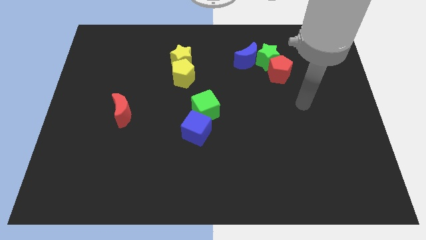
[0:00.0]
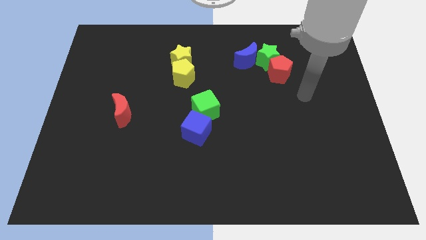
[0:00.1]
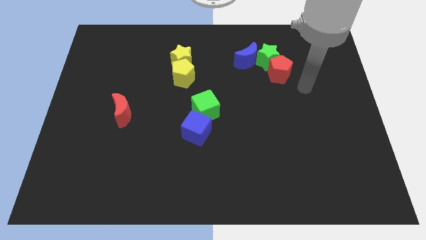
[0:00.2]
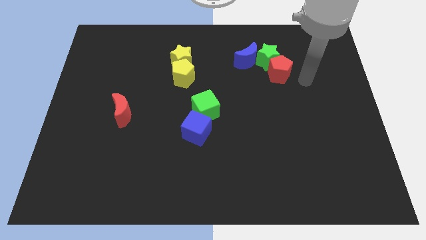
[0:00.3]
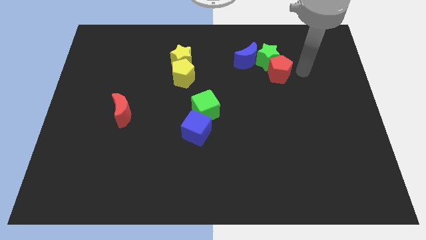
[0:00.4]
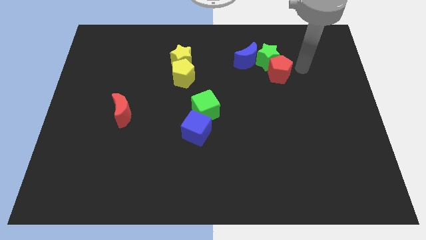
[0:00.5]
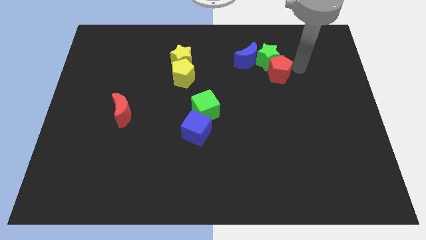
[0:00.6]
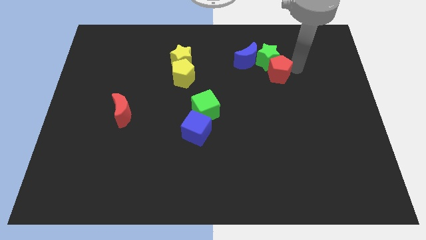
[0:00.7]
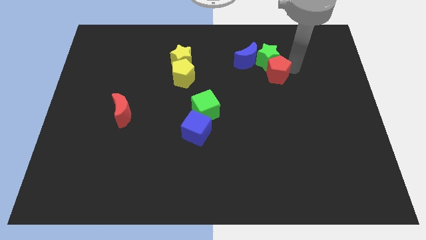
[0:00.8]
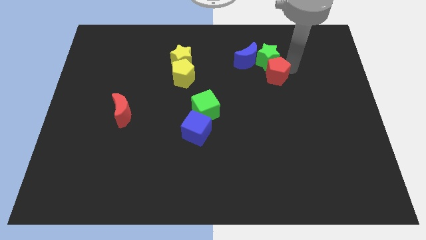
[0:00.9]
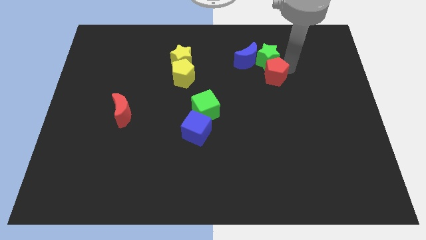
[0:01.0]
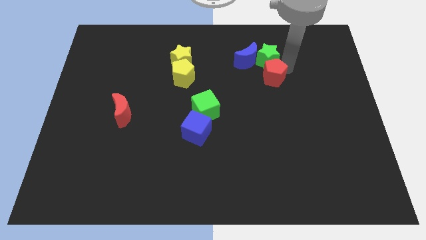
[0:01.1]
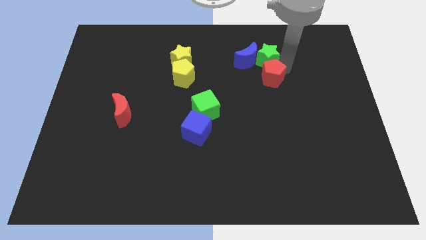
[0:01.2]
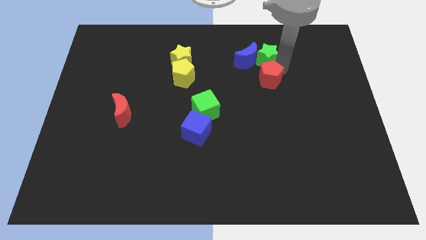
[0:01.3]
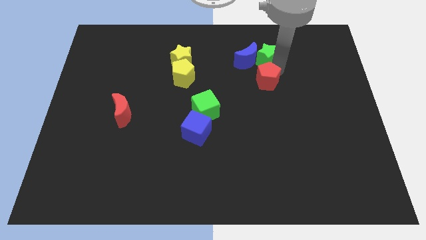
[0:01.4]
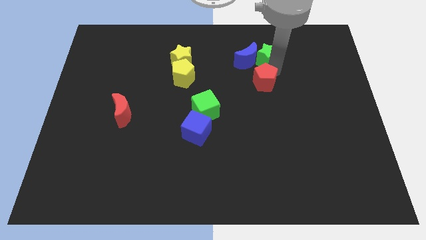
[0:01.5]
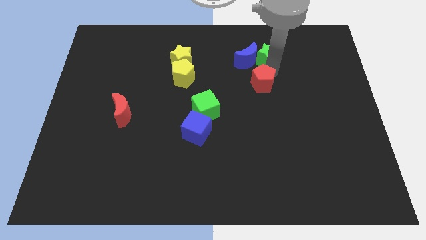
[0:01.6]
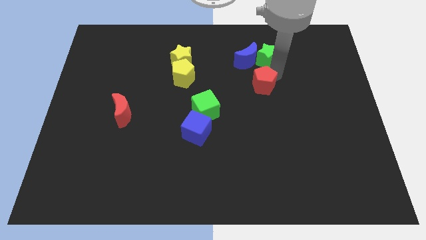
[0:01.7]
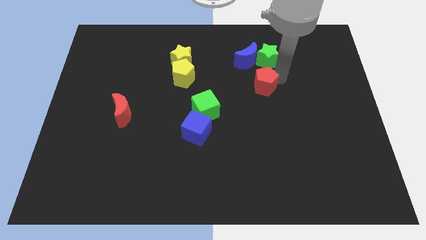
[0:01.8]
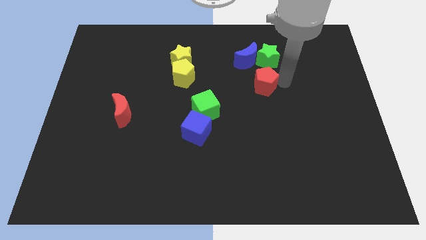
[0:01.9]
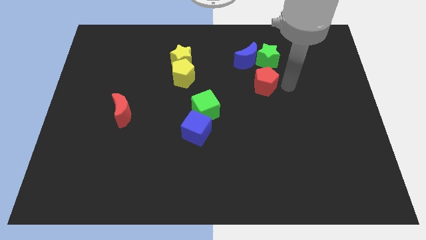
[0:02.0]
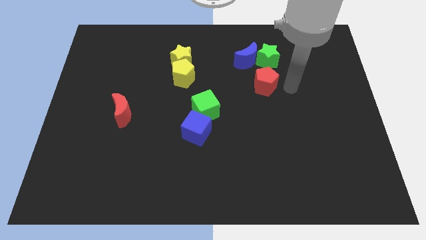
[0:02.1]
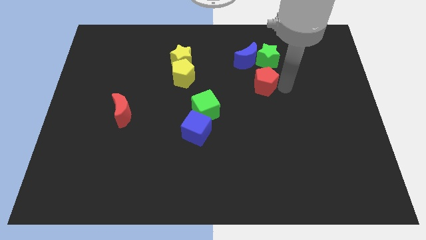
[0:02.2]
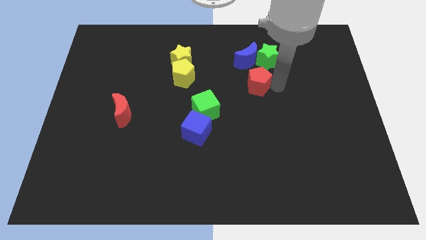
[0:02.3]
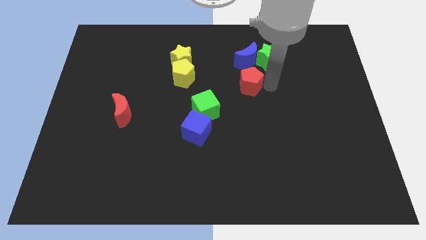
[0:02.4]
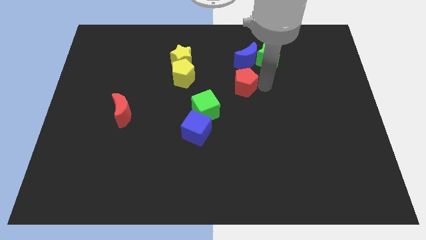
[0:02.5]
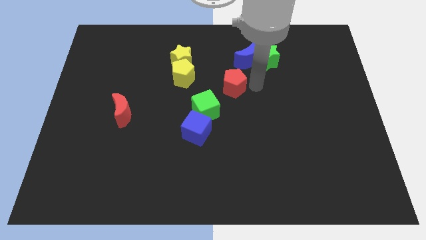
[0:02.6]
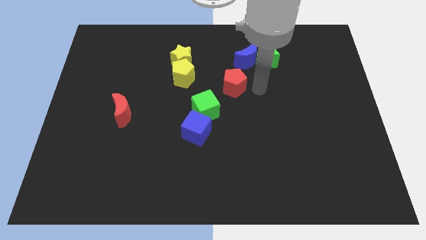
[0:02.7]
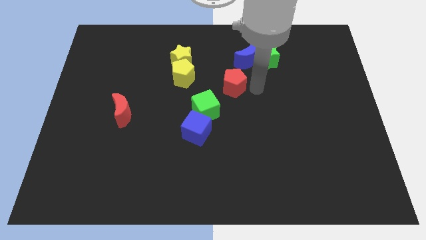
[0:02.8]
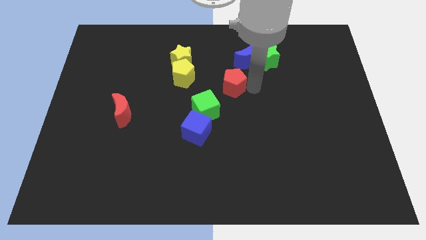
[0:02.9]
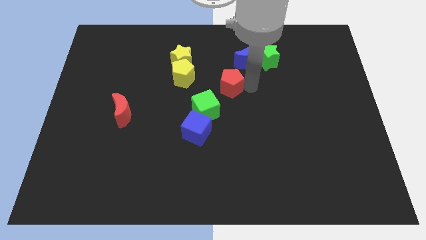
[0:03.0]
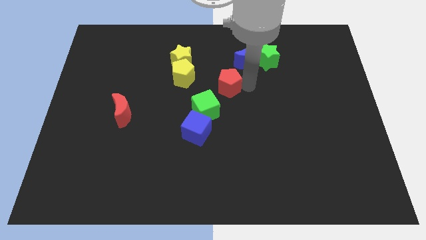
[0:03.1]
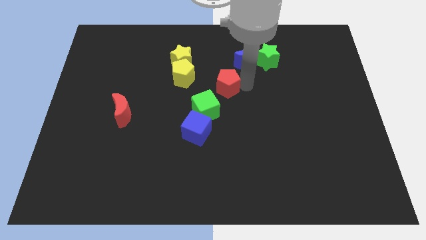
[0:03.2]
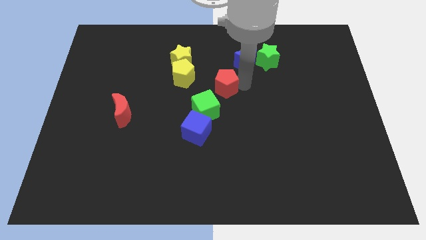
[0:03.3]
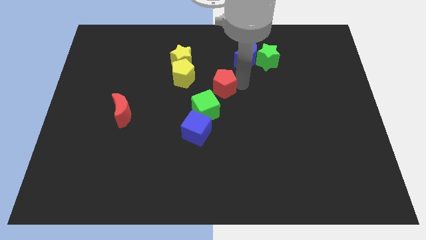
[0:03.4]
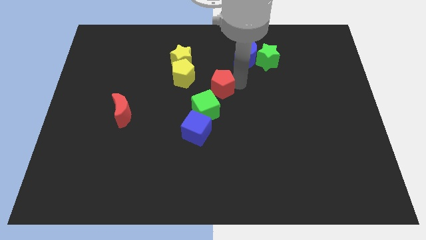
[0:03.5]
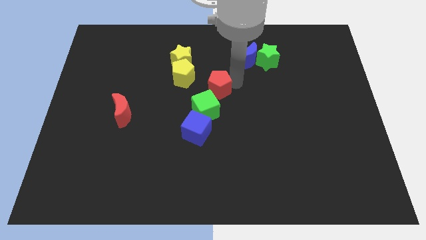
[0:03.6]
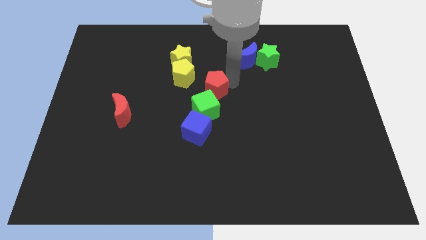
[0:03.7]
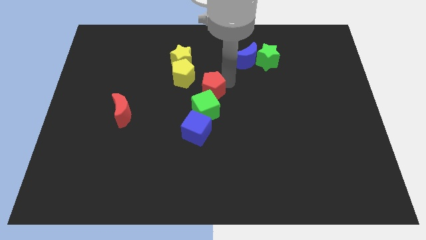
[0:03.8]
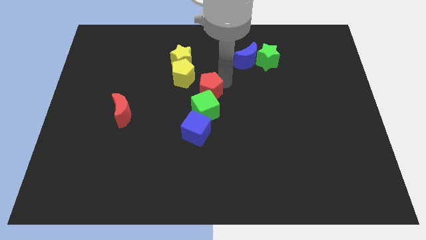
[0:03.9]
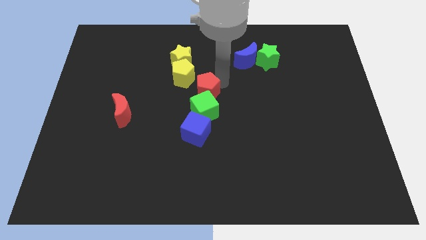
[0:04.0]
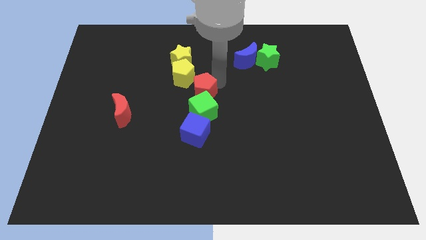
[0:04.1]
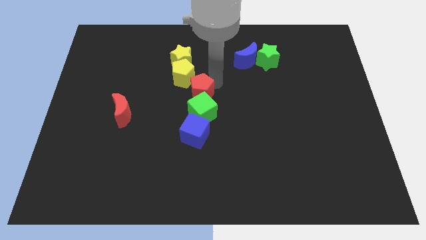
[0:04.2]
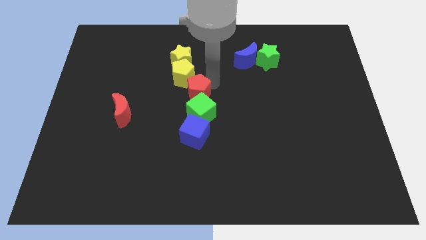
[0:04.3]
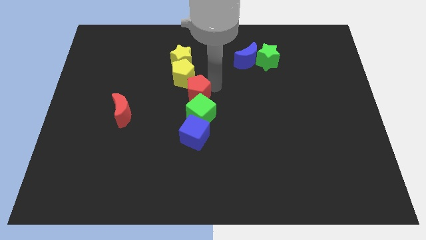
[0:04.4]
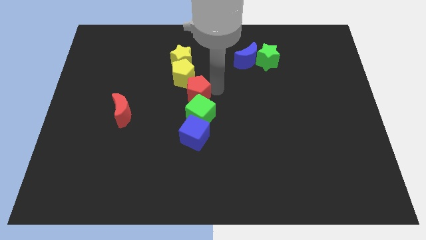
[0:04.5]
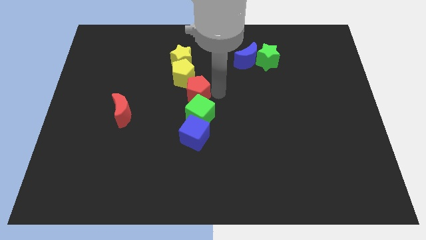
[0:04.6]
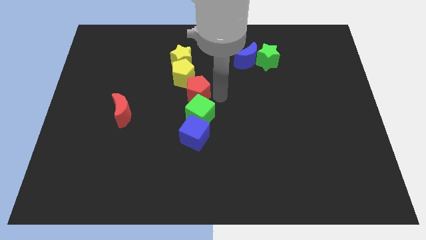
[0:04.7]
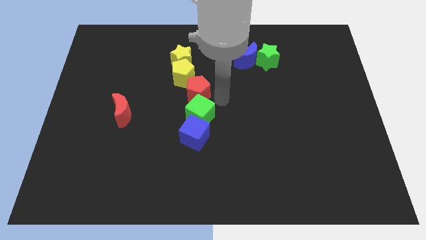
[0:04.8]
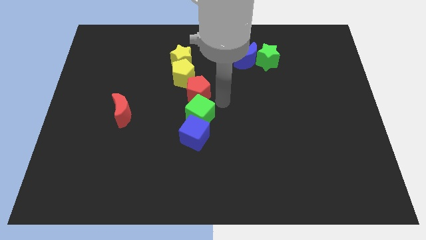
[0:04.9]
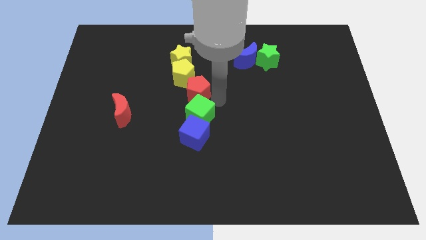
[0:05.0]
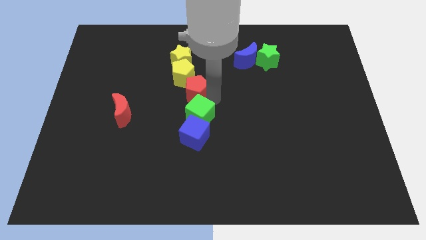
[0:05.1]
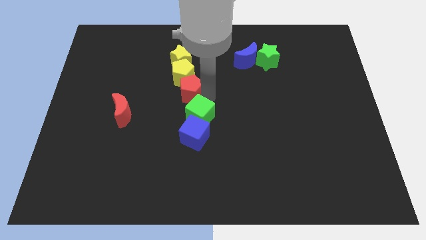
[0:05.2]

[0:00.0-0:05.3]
slide the red pentagon to the left

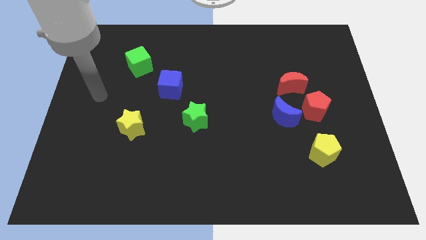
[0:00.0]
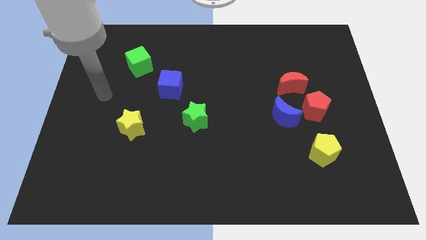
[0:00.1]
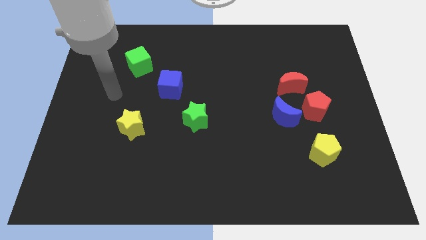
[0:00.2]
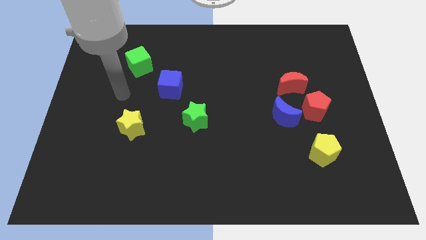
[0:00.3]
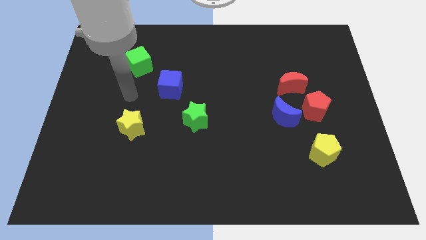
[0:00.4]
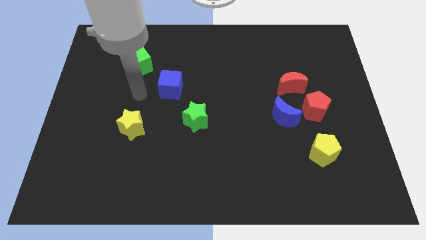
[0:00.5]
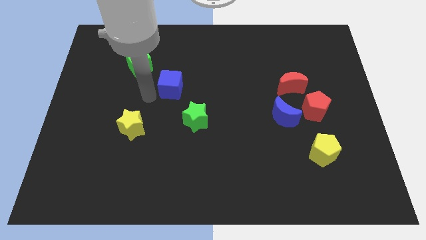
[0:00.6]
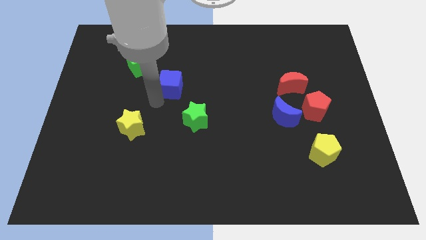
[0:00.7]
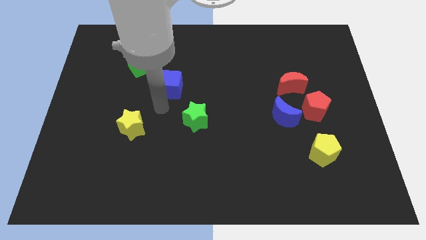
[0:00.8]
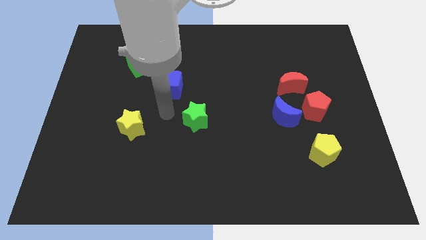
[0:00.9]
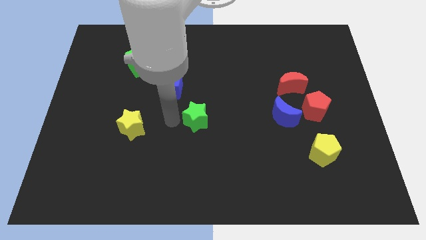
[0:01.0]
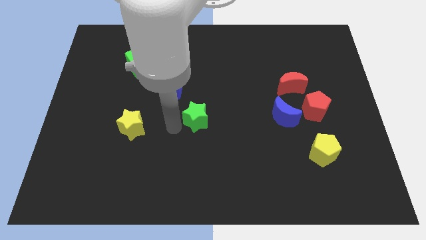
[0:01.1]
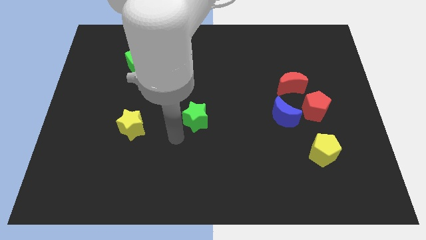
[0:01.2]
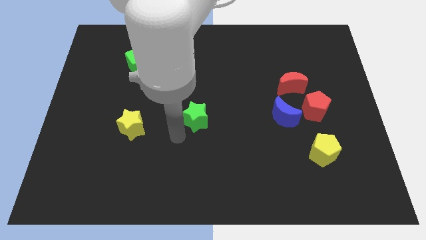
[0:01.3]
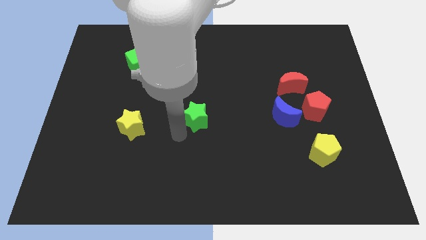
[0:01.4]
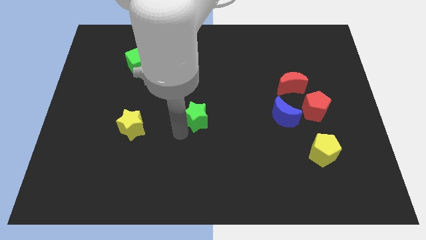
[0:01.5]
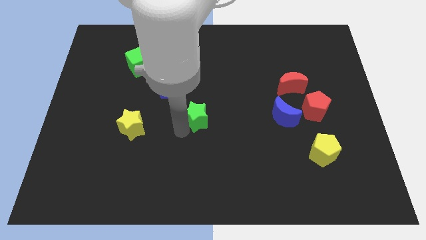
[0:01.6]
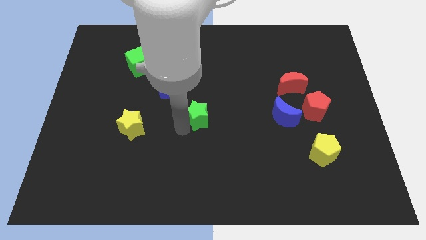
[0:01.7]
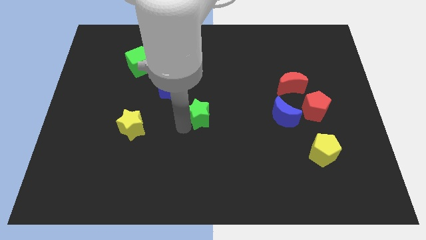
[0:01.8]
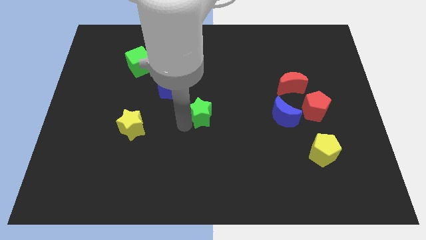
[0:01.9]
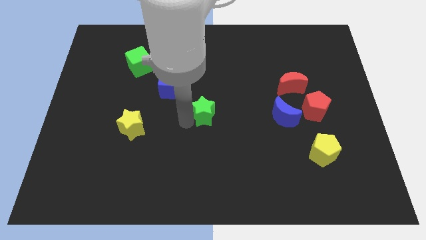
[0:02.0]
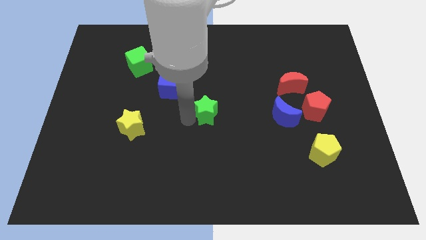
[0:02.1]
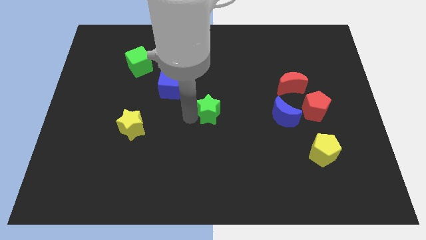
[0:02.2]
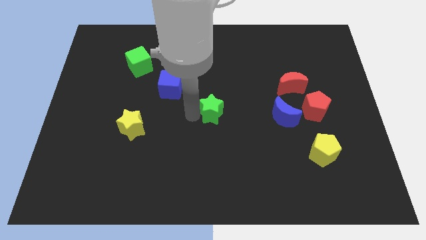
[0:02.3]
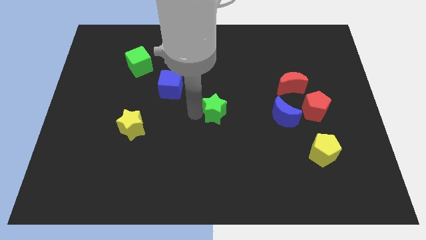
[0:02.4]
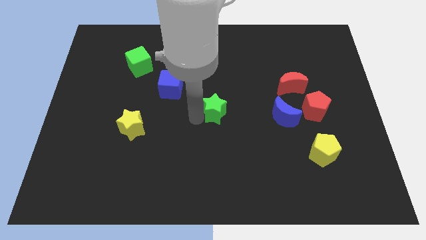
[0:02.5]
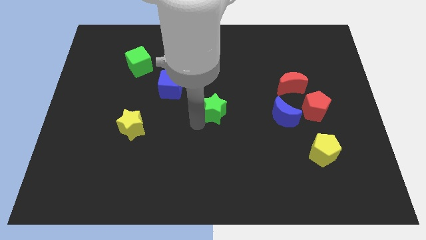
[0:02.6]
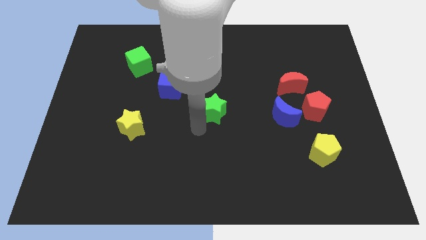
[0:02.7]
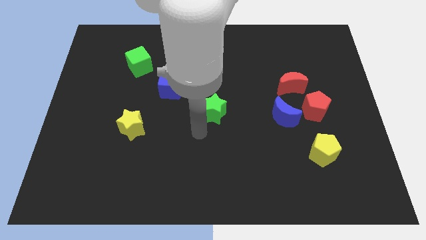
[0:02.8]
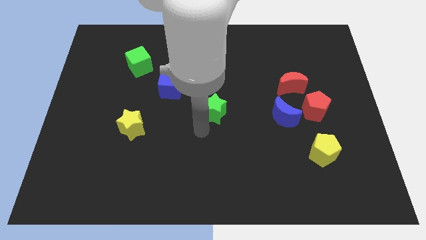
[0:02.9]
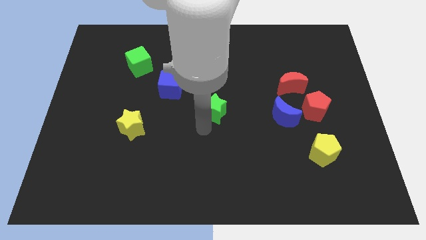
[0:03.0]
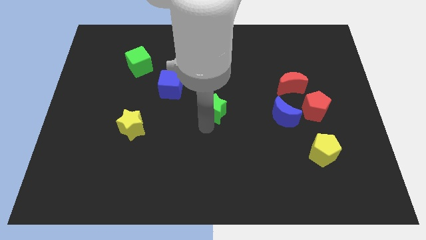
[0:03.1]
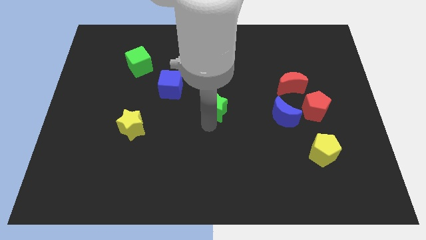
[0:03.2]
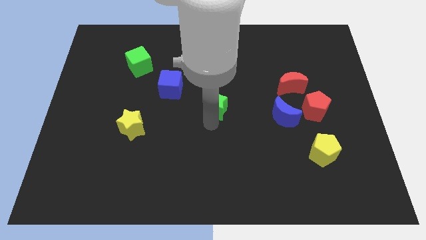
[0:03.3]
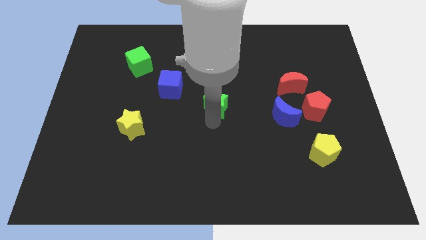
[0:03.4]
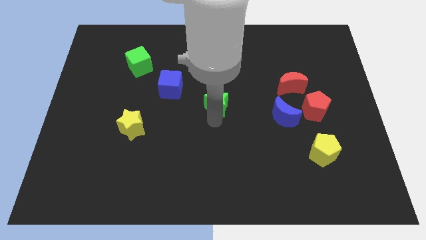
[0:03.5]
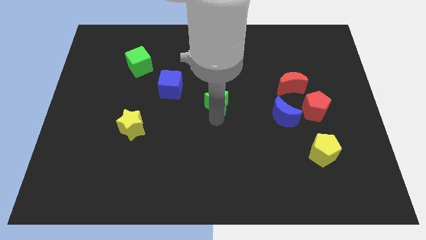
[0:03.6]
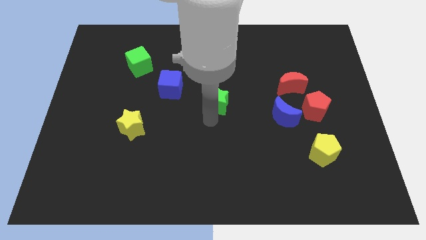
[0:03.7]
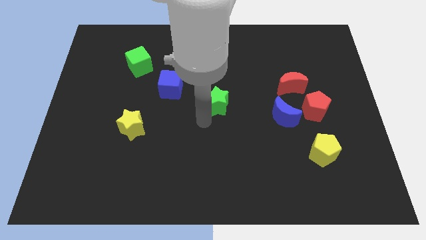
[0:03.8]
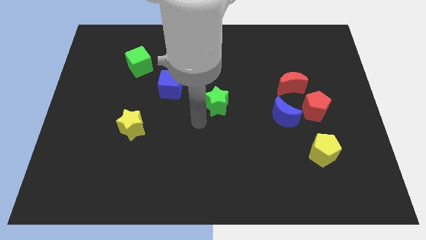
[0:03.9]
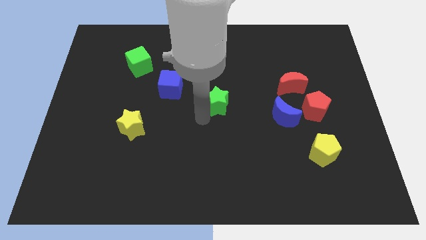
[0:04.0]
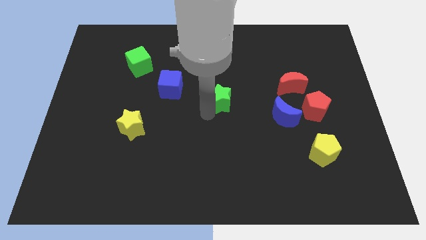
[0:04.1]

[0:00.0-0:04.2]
move the green star a bit up and then right
